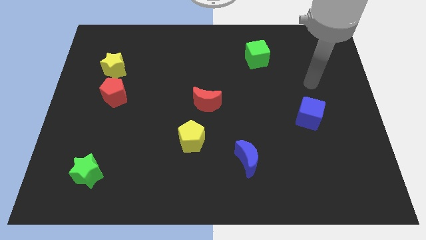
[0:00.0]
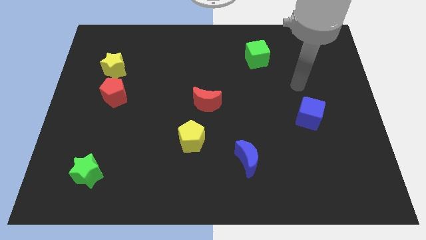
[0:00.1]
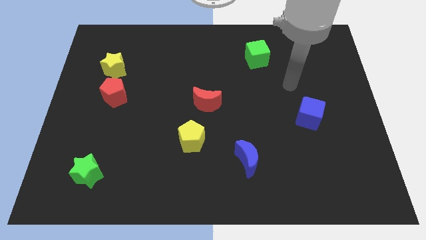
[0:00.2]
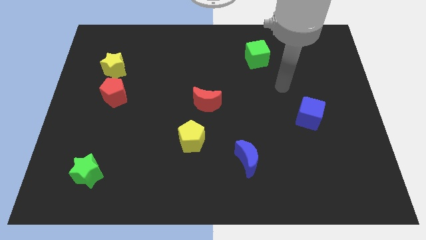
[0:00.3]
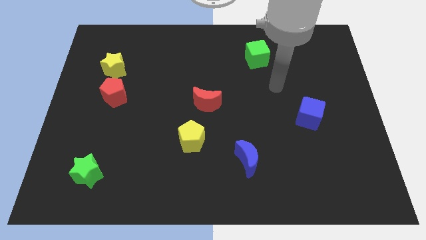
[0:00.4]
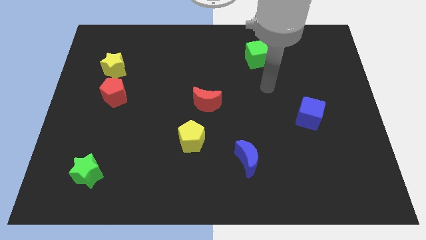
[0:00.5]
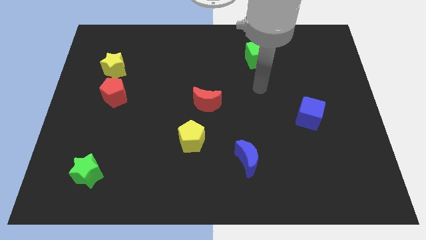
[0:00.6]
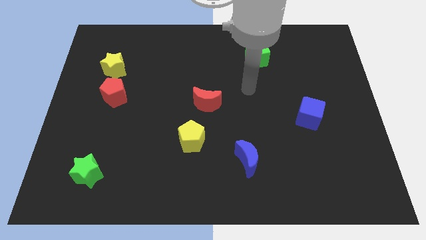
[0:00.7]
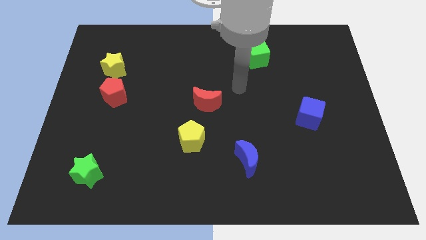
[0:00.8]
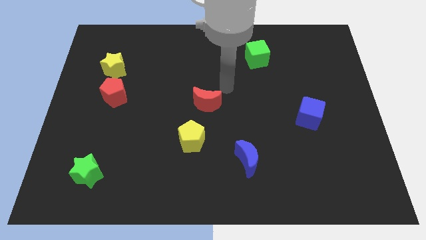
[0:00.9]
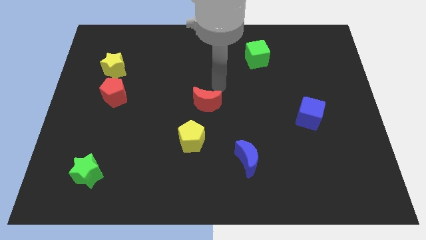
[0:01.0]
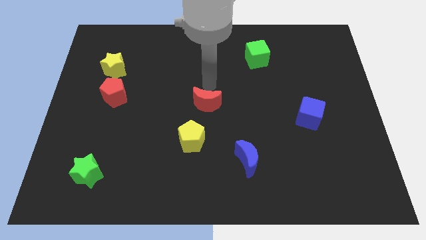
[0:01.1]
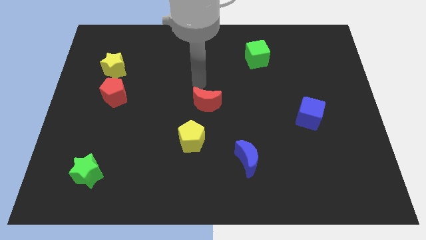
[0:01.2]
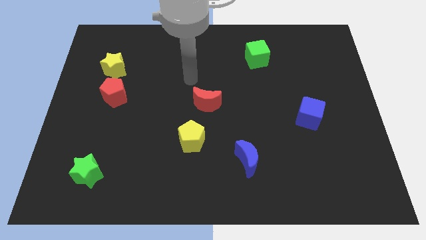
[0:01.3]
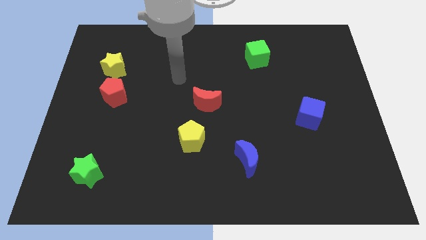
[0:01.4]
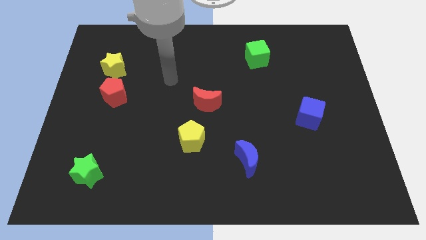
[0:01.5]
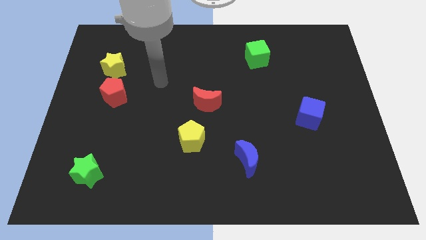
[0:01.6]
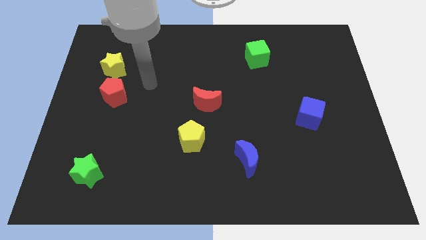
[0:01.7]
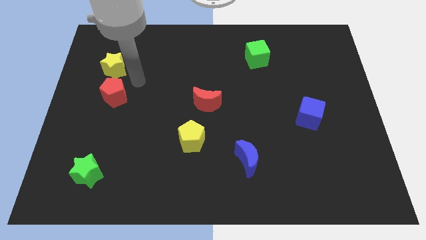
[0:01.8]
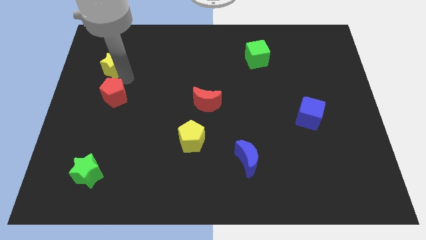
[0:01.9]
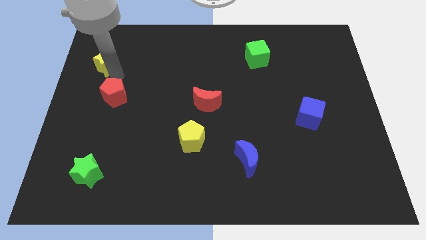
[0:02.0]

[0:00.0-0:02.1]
move the red pentagon away from the yellow star

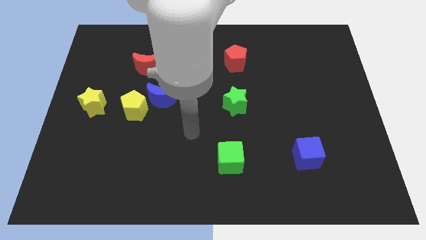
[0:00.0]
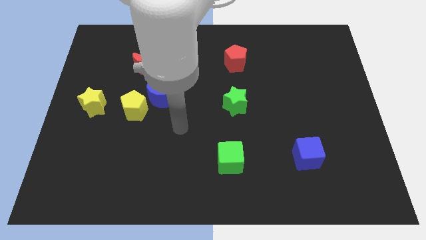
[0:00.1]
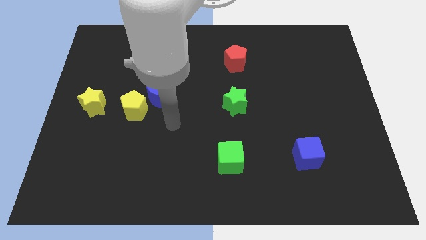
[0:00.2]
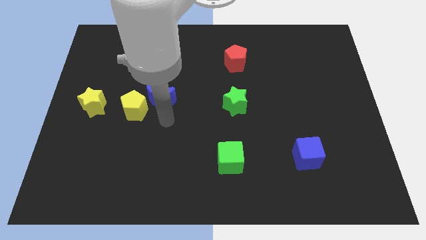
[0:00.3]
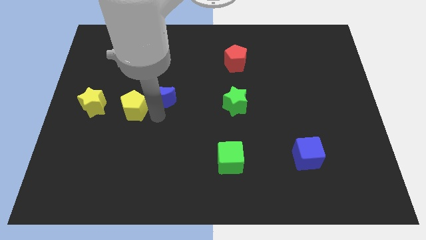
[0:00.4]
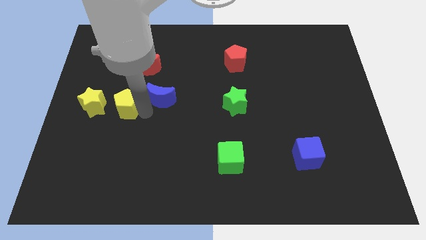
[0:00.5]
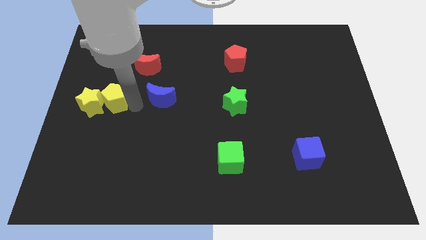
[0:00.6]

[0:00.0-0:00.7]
pull the blue moon apart from the yellow pentagon

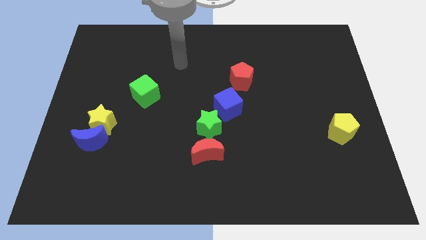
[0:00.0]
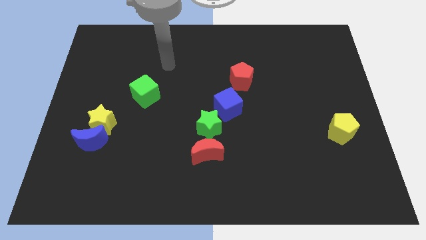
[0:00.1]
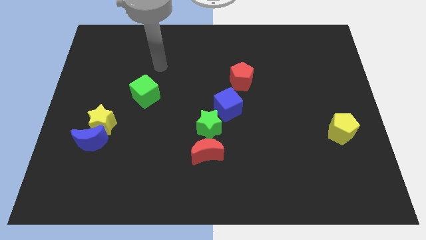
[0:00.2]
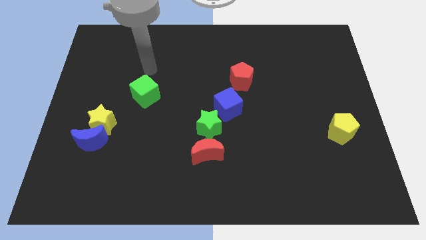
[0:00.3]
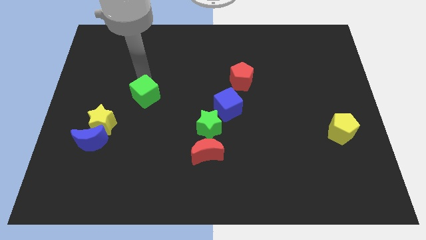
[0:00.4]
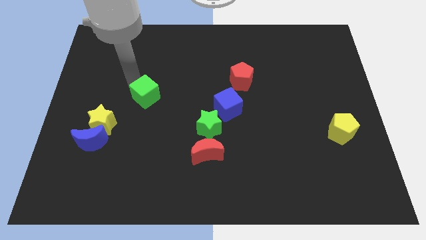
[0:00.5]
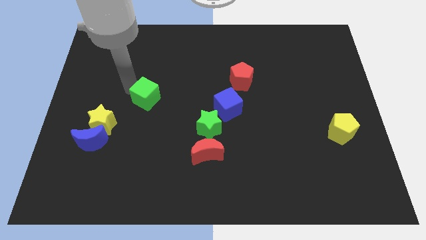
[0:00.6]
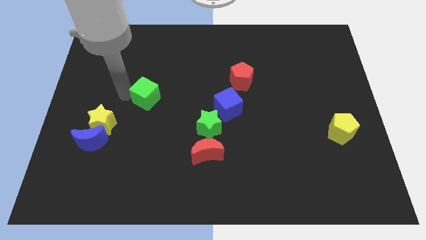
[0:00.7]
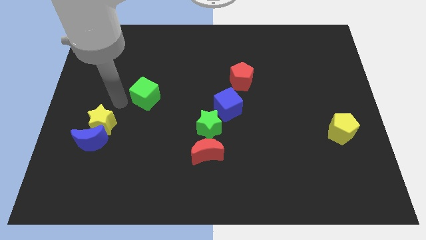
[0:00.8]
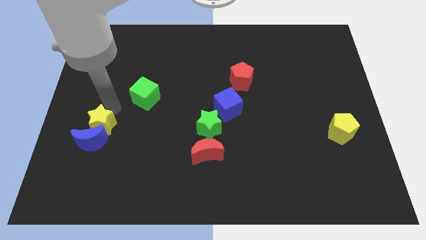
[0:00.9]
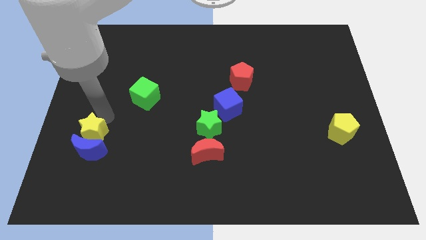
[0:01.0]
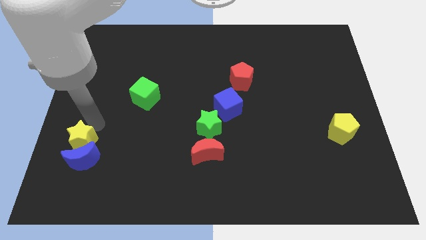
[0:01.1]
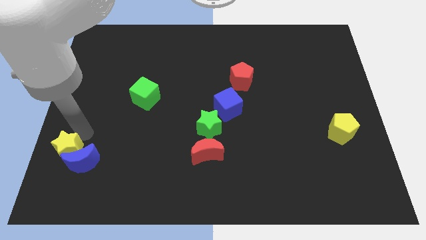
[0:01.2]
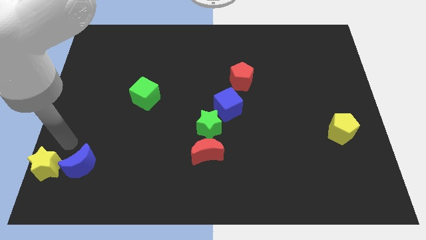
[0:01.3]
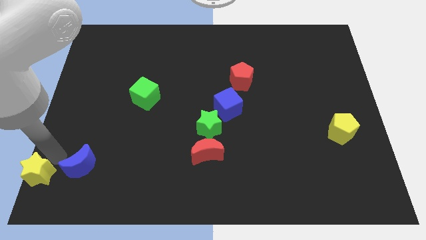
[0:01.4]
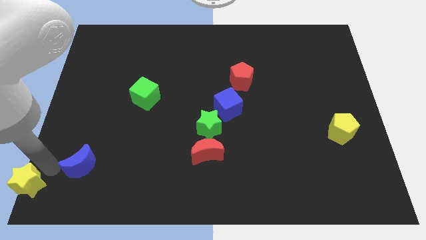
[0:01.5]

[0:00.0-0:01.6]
move the blue moon away from the yellow star

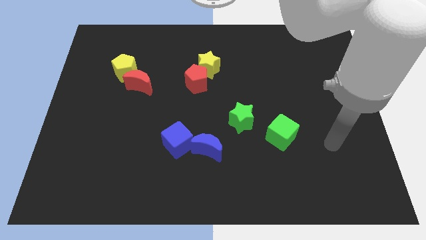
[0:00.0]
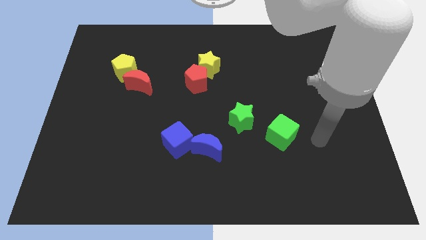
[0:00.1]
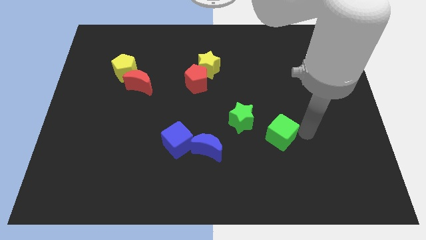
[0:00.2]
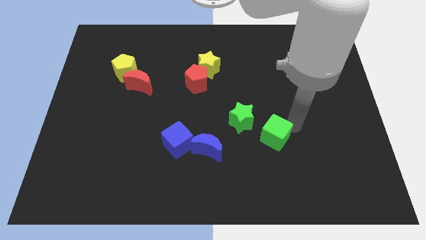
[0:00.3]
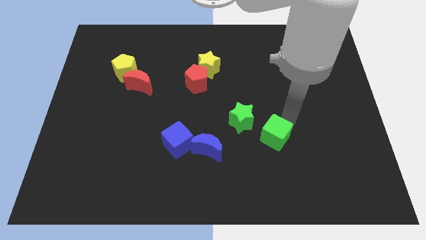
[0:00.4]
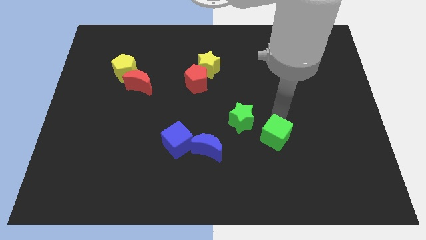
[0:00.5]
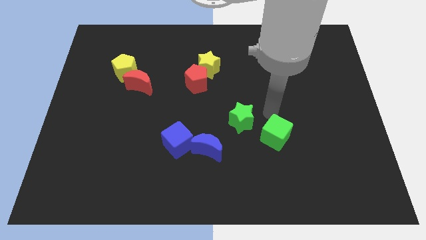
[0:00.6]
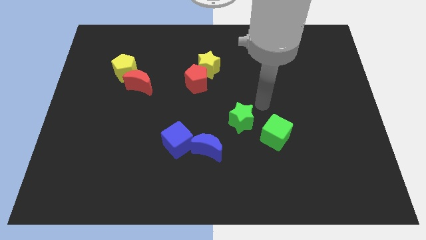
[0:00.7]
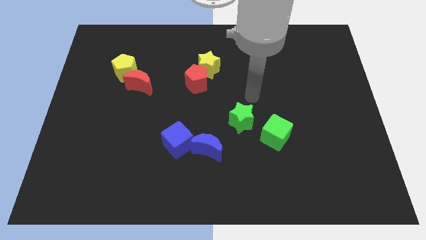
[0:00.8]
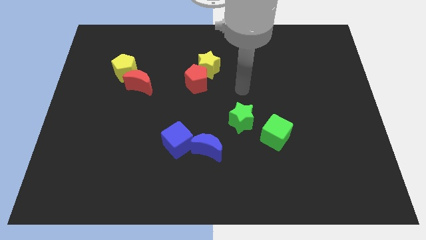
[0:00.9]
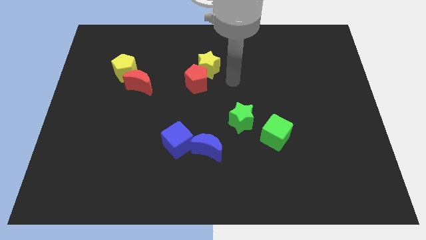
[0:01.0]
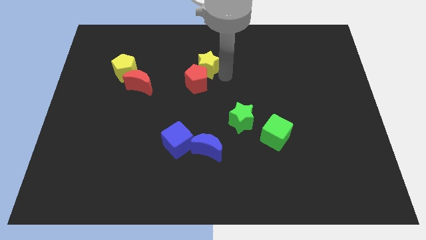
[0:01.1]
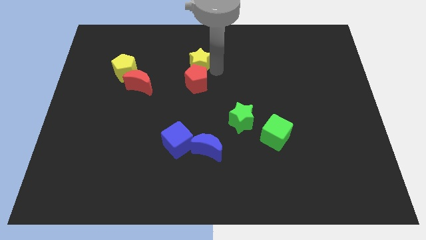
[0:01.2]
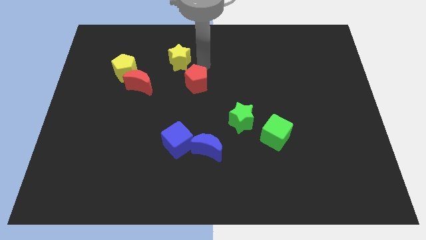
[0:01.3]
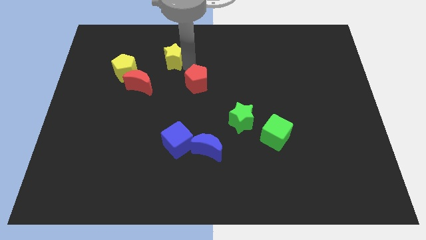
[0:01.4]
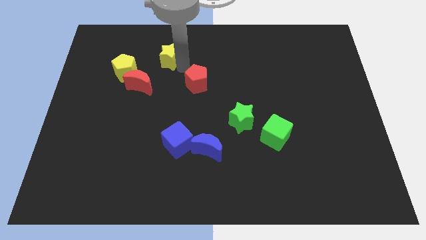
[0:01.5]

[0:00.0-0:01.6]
pull the red pentagon apart from the yellow star

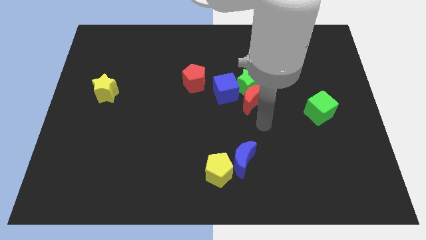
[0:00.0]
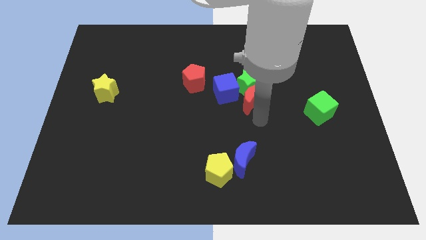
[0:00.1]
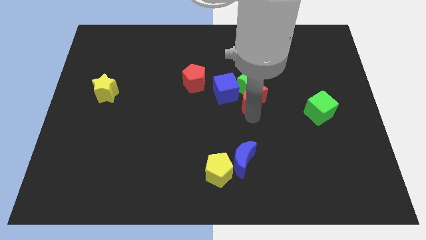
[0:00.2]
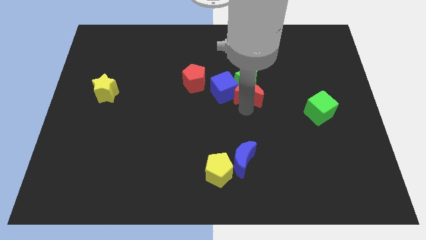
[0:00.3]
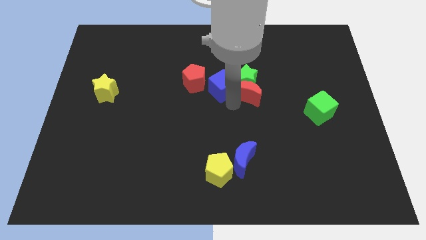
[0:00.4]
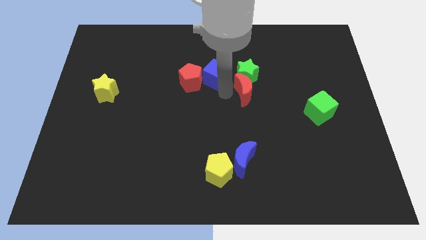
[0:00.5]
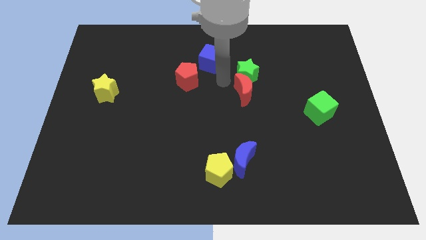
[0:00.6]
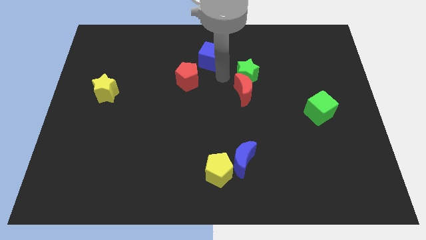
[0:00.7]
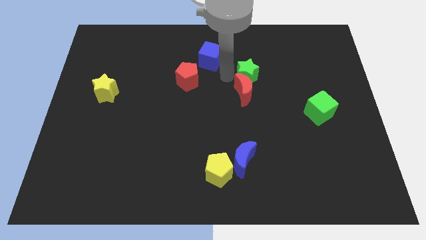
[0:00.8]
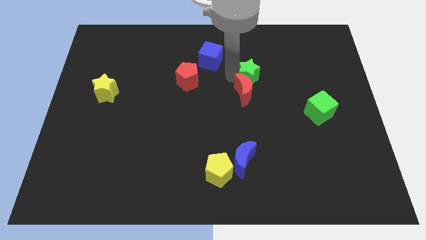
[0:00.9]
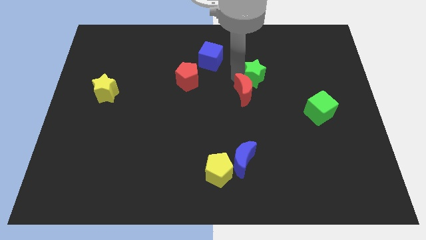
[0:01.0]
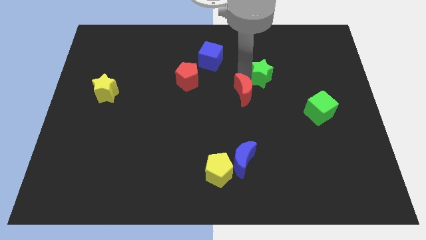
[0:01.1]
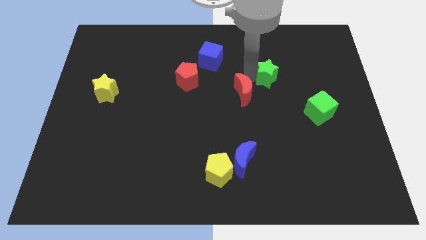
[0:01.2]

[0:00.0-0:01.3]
move the green star away from the red moon and blue cube

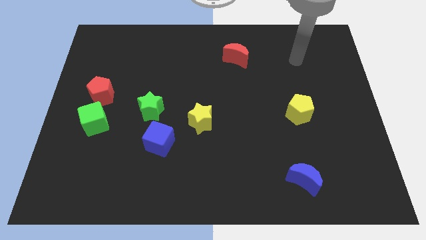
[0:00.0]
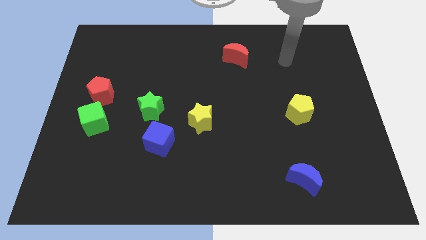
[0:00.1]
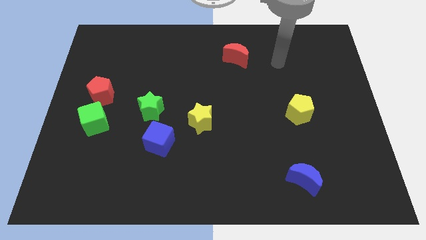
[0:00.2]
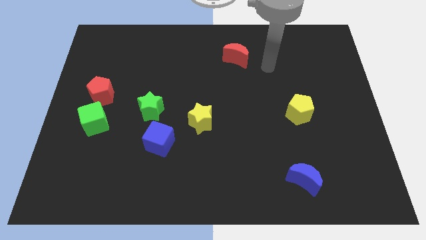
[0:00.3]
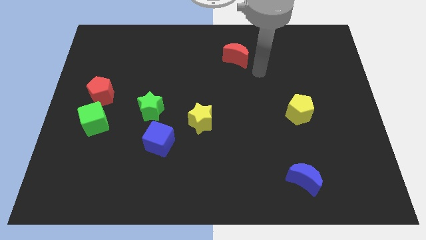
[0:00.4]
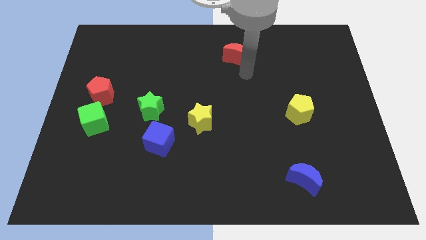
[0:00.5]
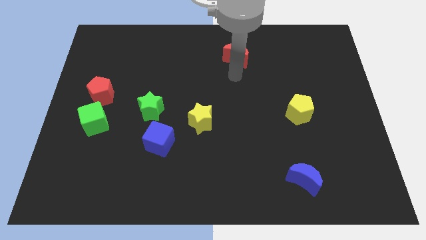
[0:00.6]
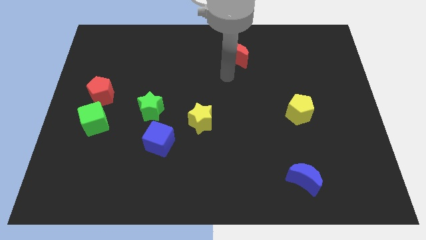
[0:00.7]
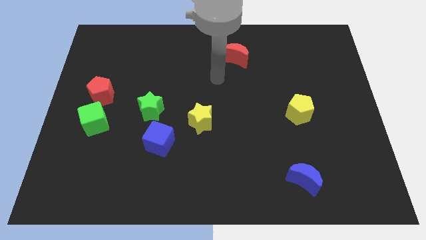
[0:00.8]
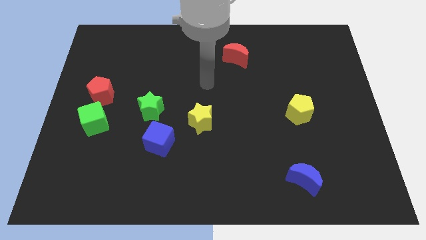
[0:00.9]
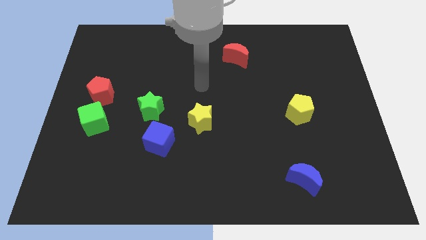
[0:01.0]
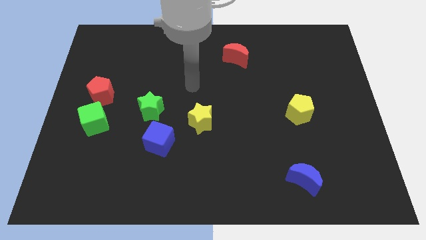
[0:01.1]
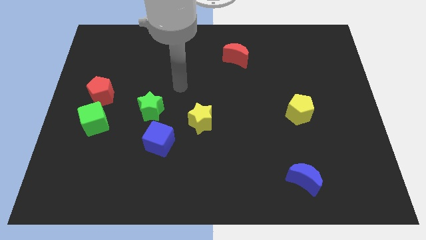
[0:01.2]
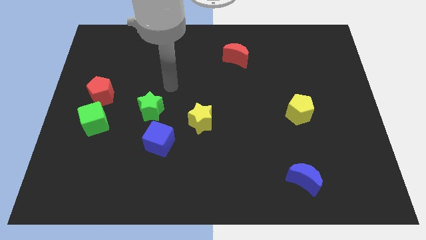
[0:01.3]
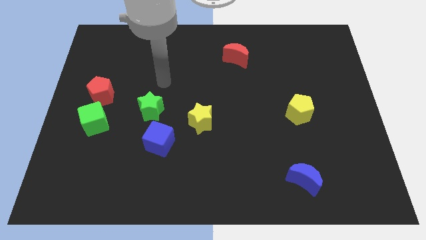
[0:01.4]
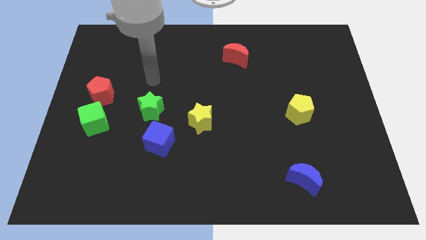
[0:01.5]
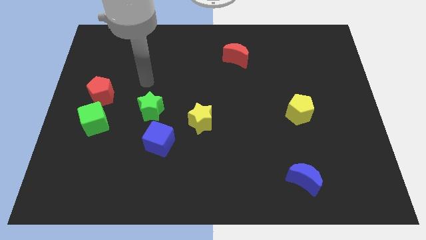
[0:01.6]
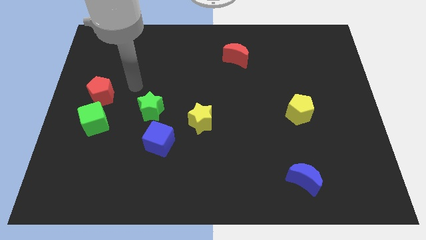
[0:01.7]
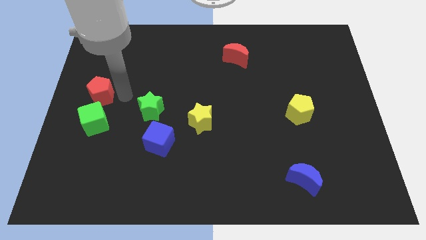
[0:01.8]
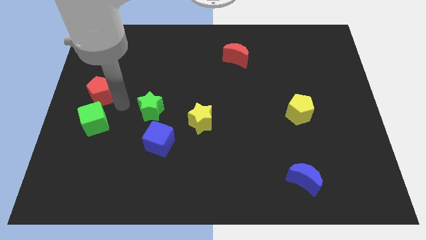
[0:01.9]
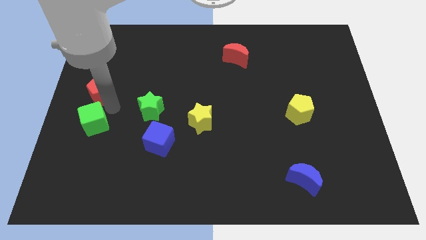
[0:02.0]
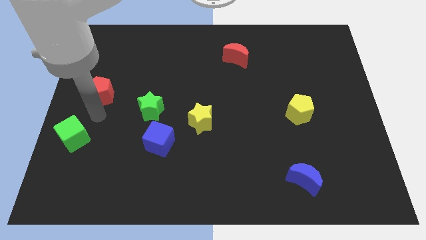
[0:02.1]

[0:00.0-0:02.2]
separate the red pentagon from the green cube
